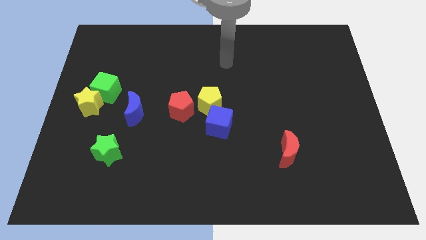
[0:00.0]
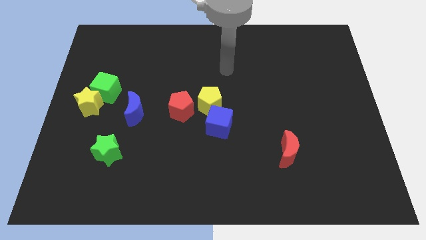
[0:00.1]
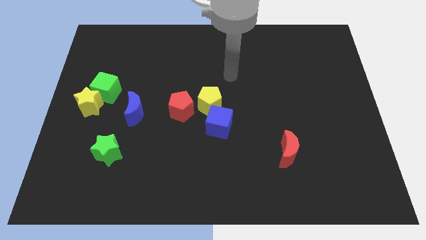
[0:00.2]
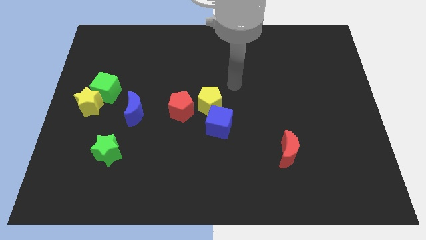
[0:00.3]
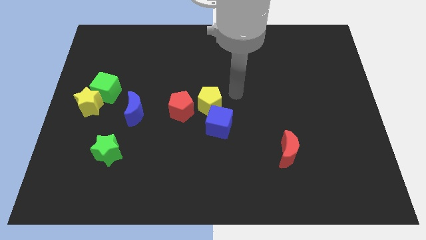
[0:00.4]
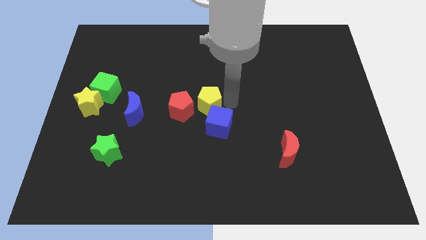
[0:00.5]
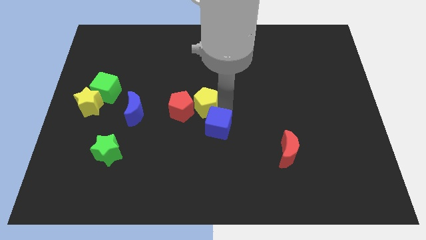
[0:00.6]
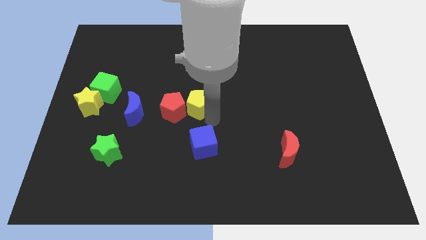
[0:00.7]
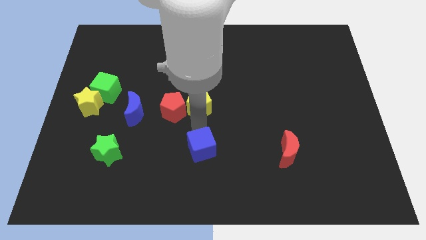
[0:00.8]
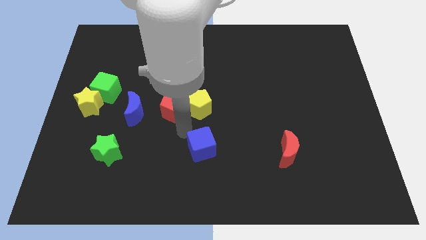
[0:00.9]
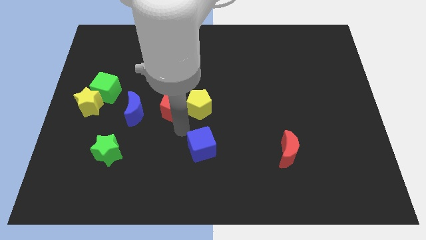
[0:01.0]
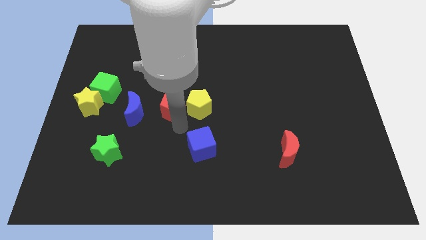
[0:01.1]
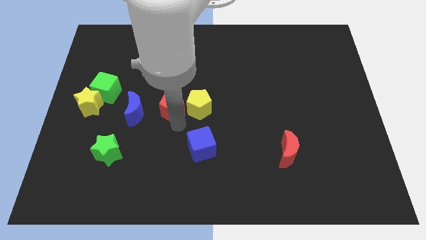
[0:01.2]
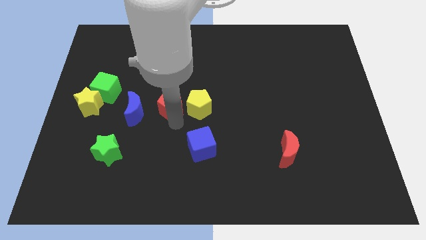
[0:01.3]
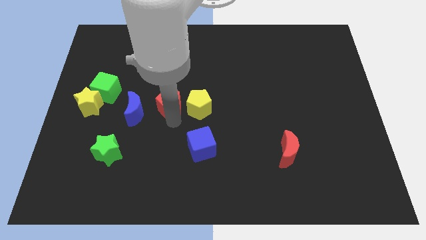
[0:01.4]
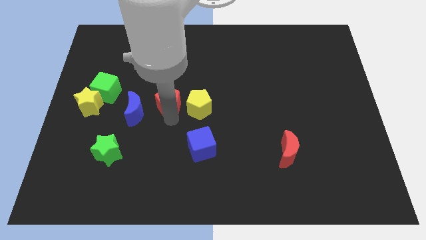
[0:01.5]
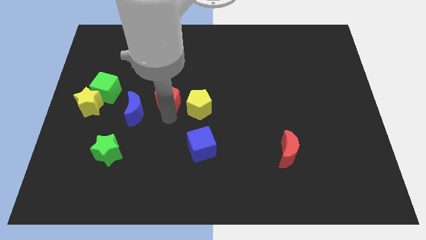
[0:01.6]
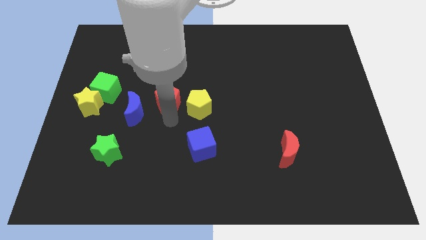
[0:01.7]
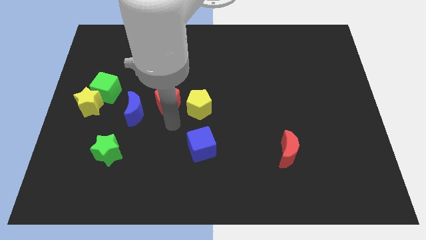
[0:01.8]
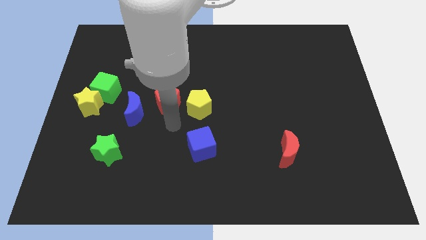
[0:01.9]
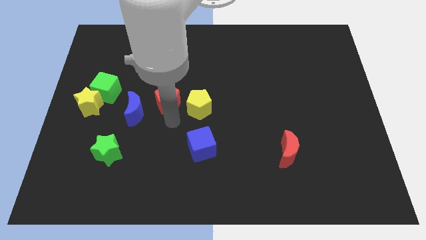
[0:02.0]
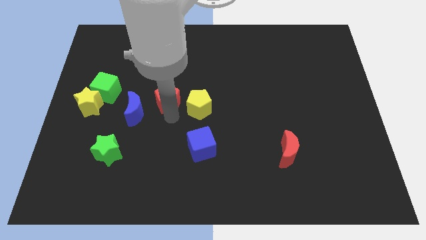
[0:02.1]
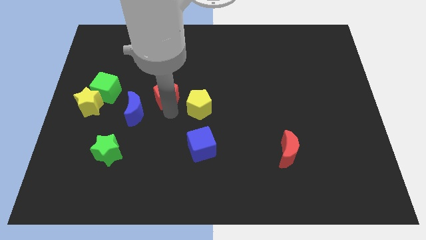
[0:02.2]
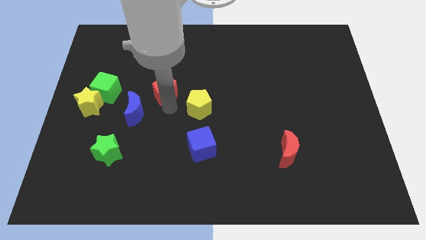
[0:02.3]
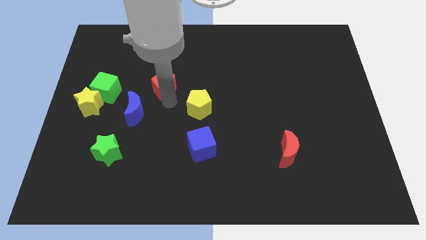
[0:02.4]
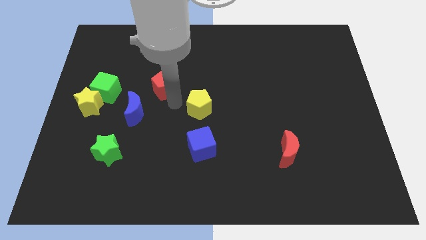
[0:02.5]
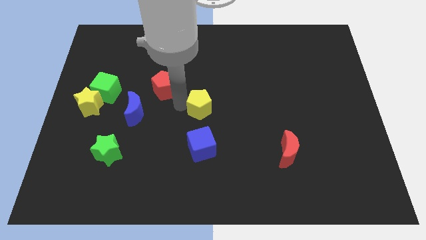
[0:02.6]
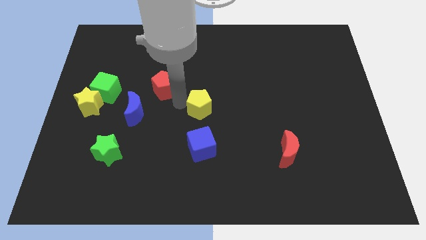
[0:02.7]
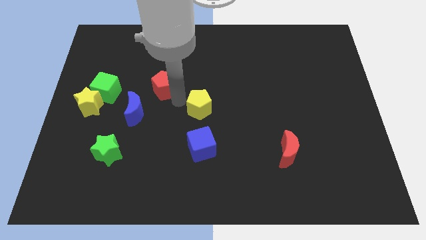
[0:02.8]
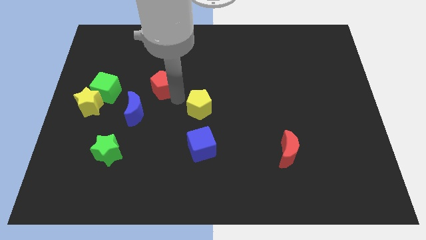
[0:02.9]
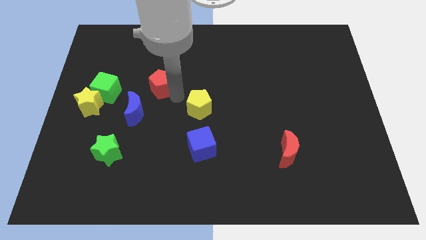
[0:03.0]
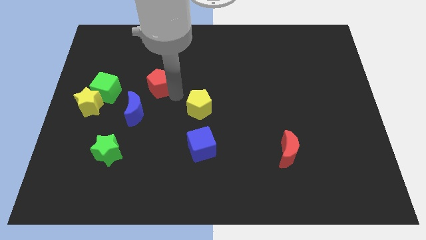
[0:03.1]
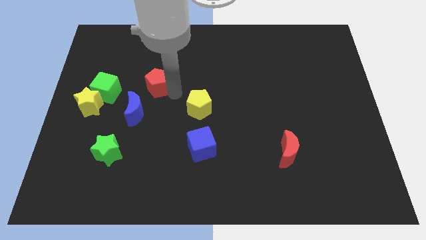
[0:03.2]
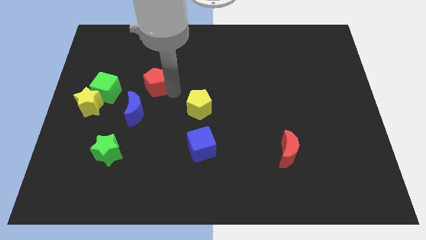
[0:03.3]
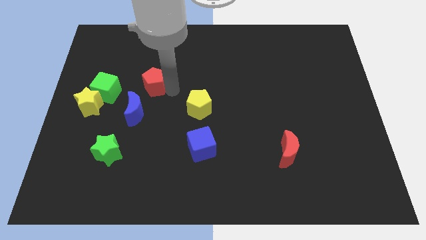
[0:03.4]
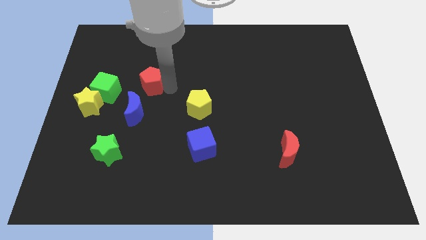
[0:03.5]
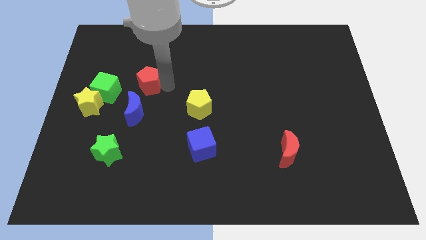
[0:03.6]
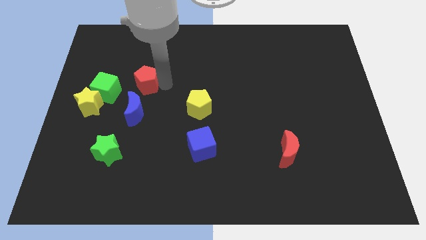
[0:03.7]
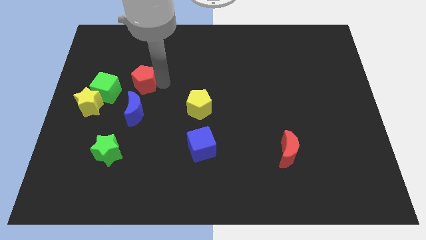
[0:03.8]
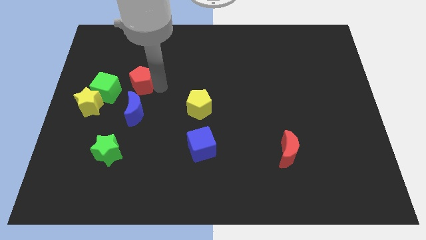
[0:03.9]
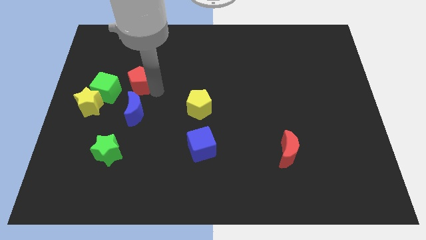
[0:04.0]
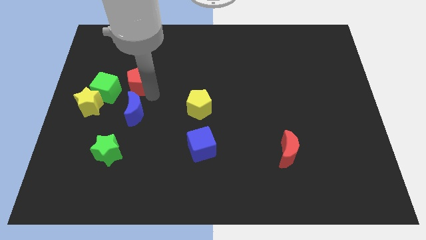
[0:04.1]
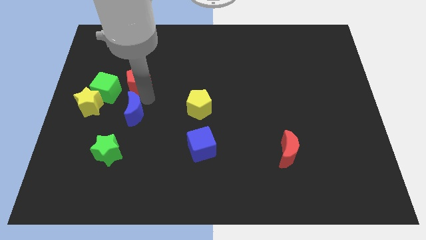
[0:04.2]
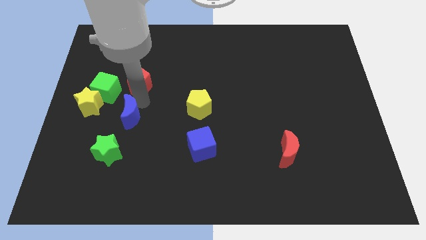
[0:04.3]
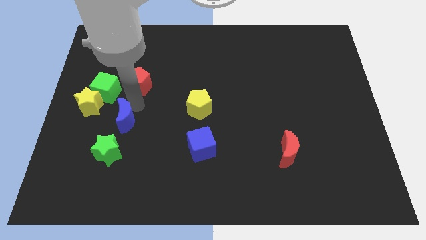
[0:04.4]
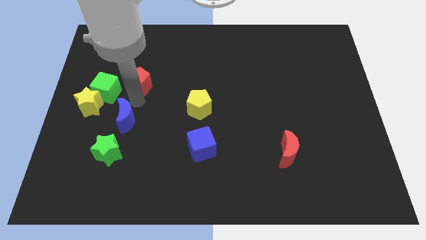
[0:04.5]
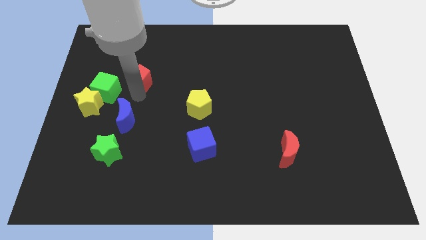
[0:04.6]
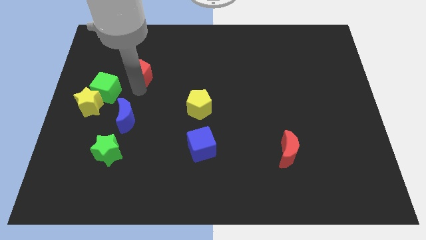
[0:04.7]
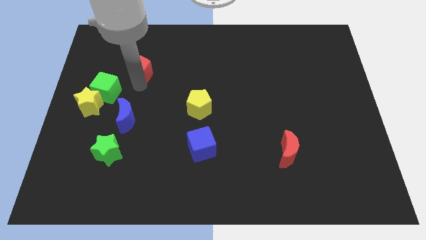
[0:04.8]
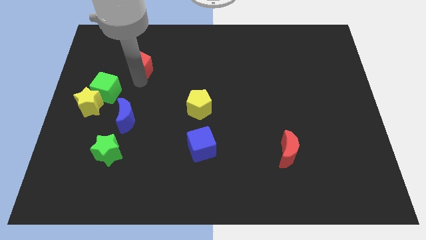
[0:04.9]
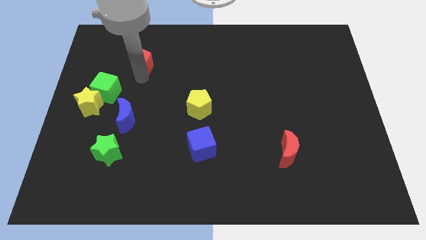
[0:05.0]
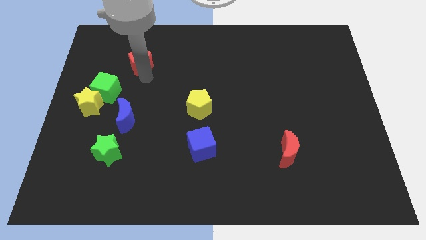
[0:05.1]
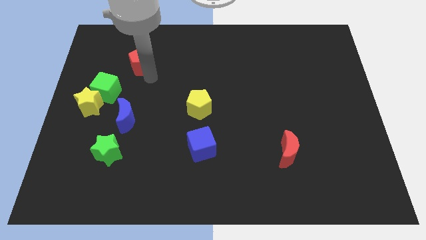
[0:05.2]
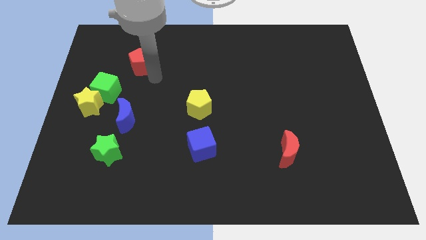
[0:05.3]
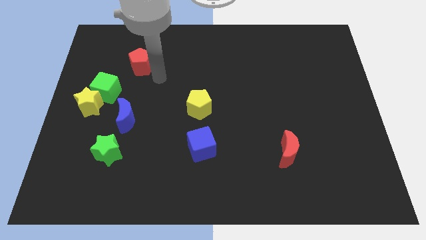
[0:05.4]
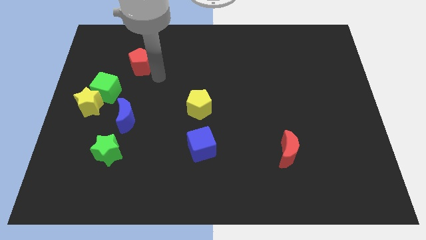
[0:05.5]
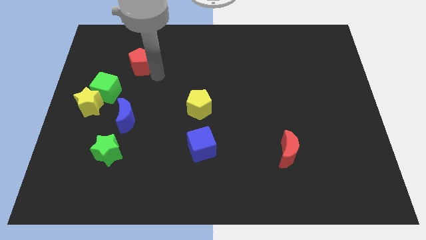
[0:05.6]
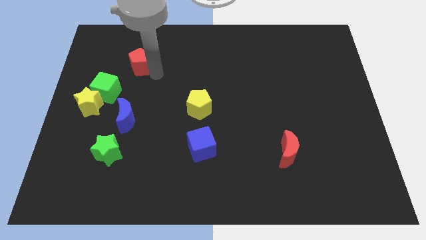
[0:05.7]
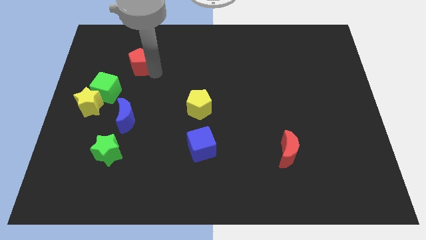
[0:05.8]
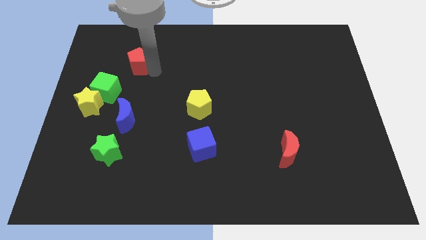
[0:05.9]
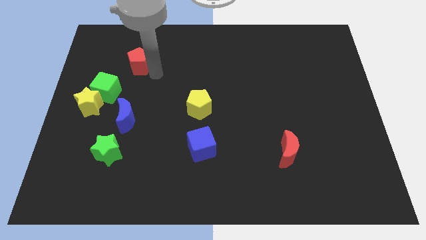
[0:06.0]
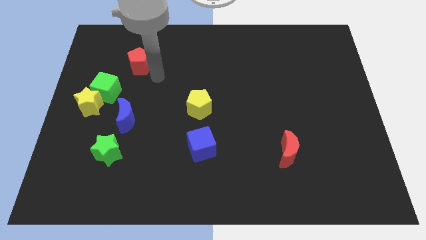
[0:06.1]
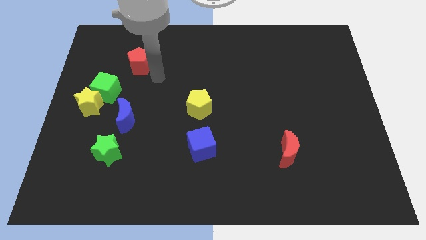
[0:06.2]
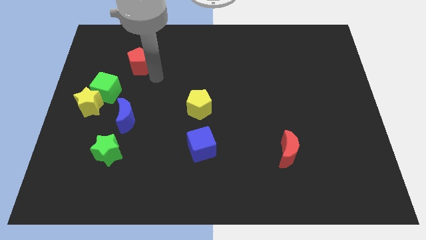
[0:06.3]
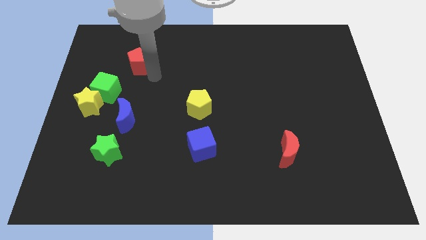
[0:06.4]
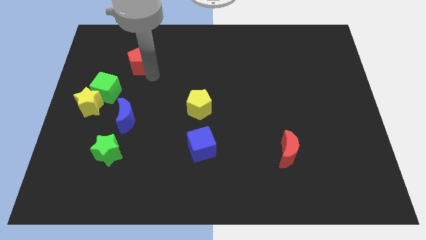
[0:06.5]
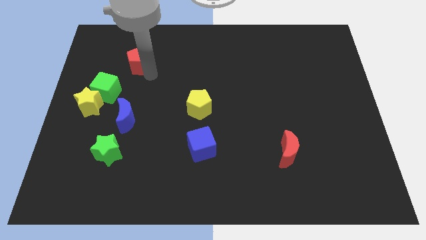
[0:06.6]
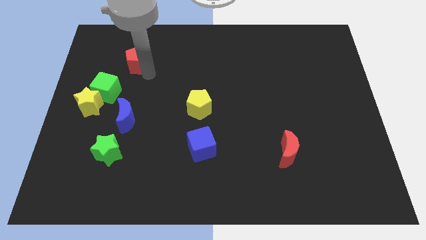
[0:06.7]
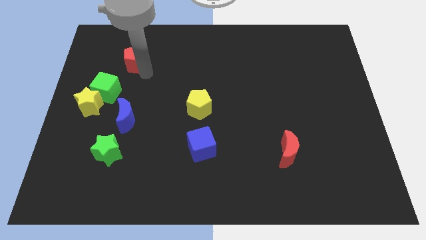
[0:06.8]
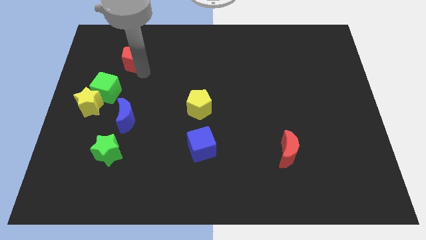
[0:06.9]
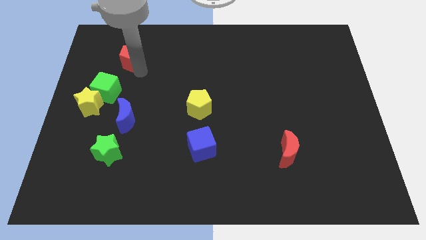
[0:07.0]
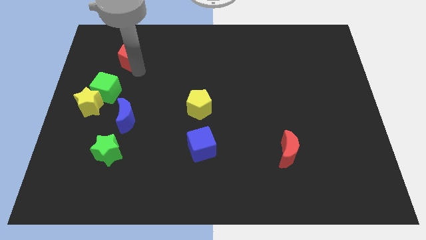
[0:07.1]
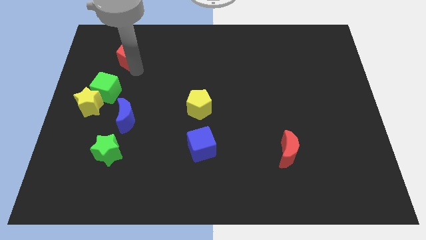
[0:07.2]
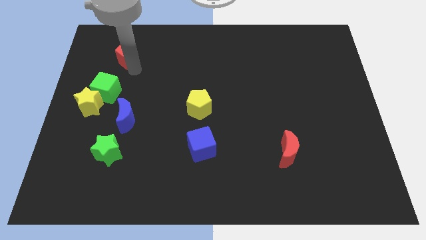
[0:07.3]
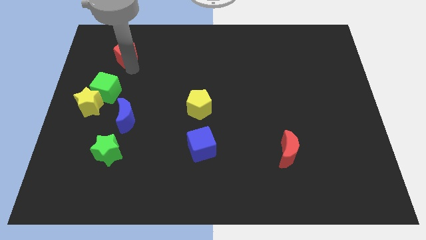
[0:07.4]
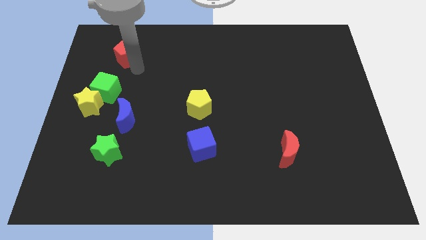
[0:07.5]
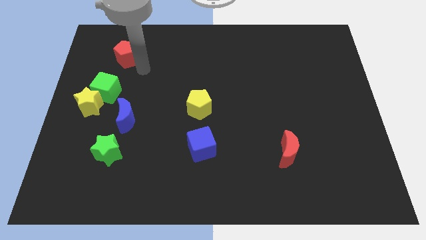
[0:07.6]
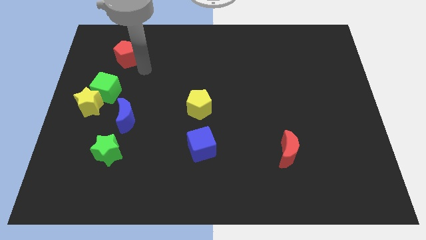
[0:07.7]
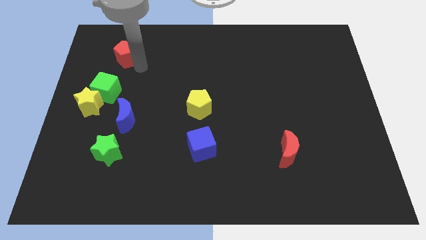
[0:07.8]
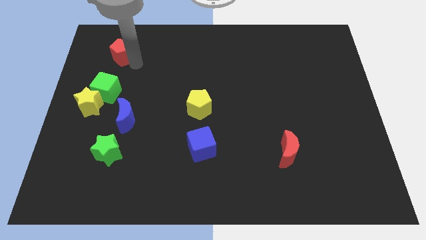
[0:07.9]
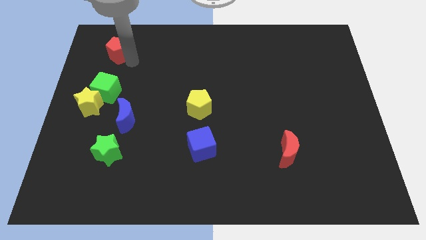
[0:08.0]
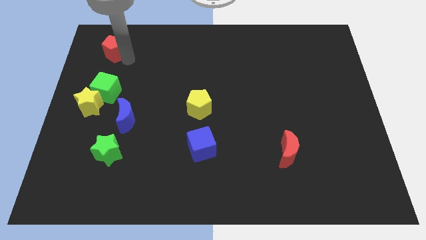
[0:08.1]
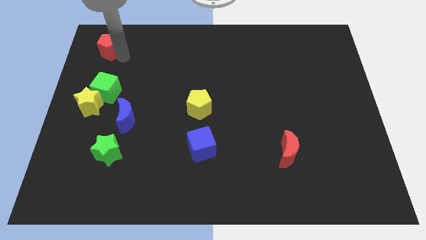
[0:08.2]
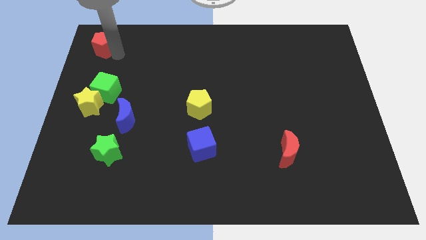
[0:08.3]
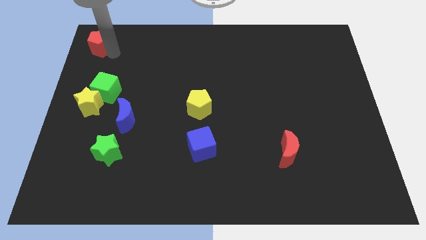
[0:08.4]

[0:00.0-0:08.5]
put the red pentagon to the top left corner
